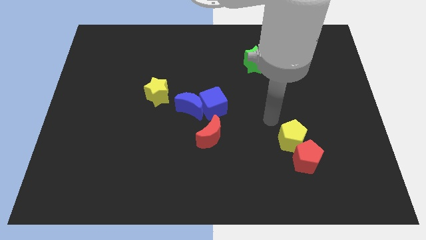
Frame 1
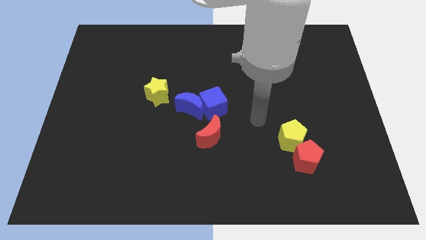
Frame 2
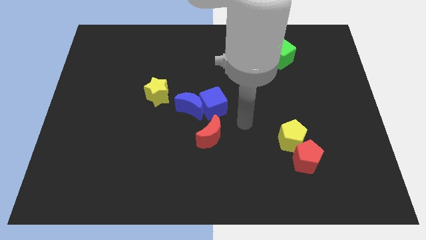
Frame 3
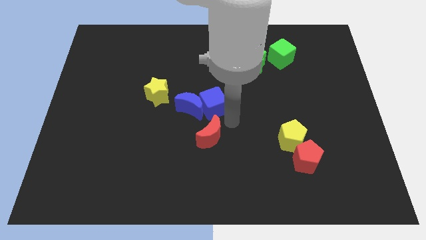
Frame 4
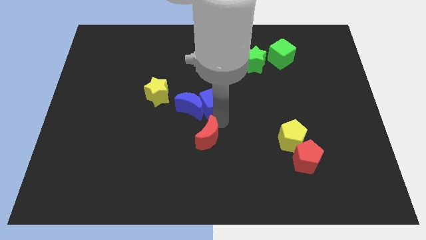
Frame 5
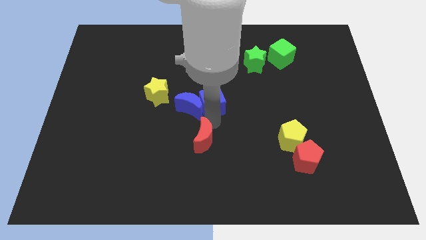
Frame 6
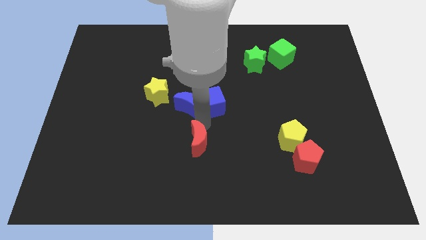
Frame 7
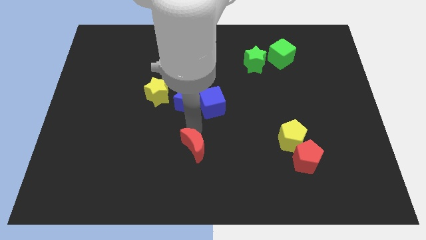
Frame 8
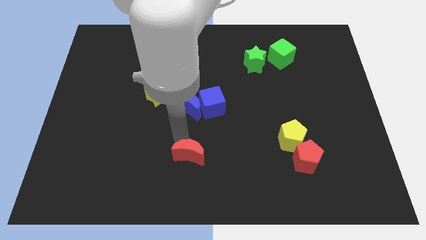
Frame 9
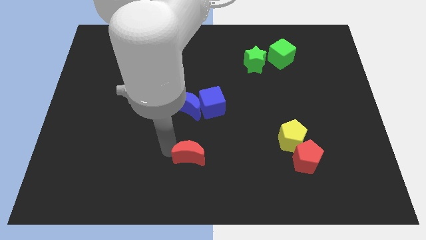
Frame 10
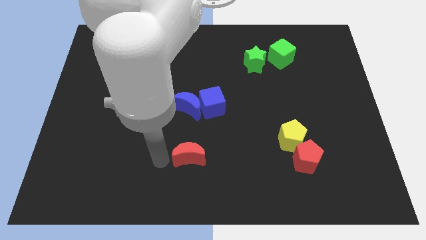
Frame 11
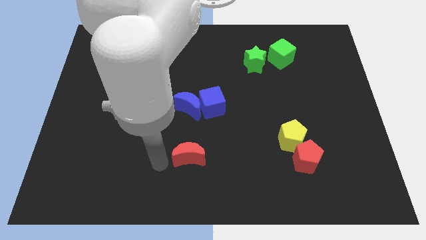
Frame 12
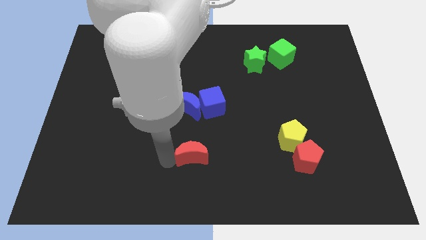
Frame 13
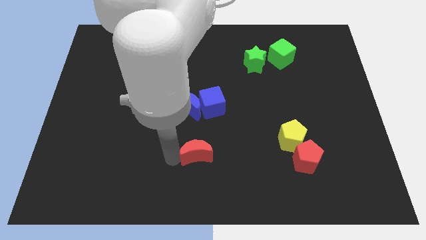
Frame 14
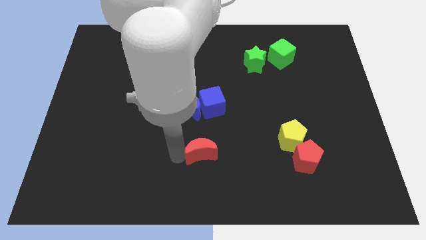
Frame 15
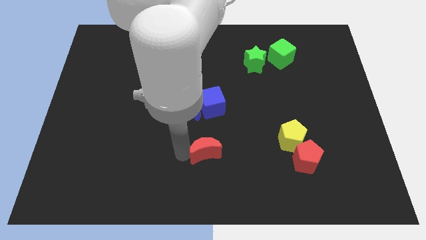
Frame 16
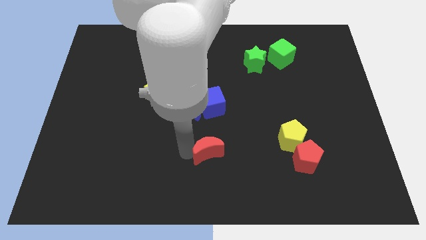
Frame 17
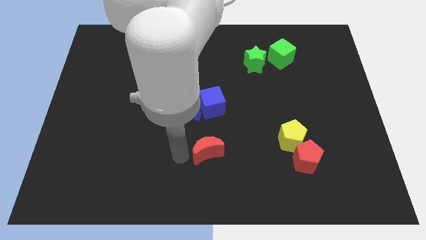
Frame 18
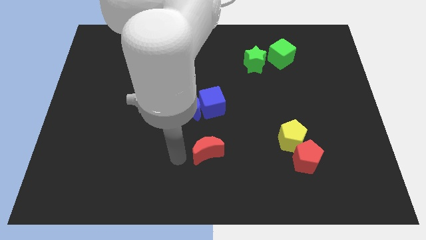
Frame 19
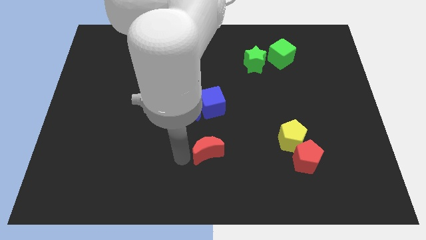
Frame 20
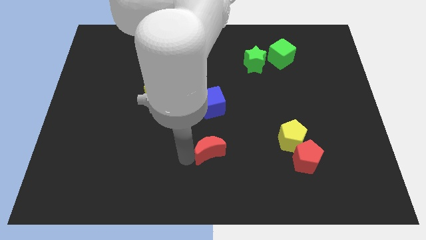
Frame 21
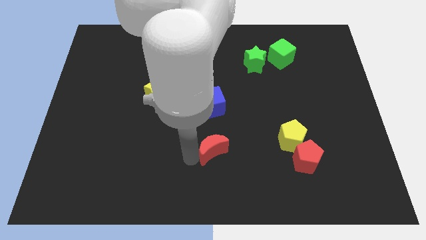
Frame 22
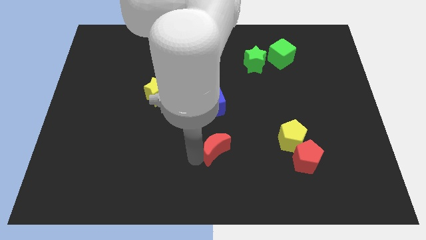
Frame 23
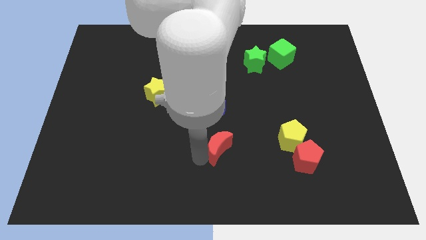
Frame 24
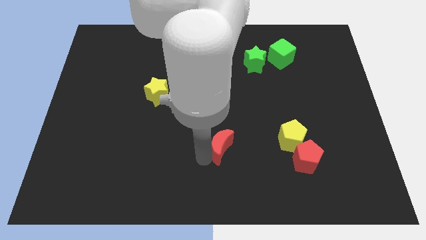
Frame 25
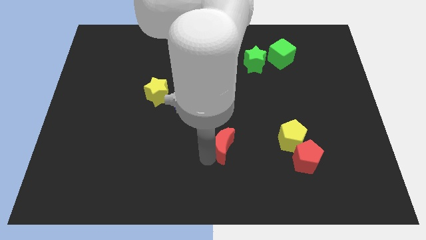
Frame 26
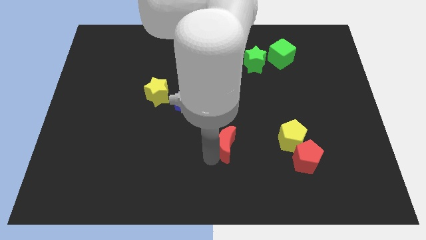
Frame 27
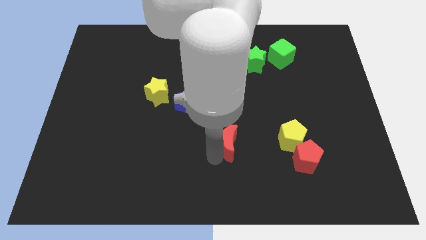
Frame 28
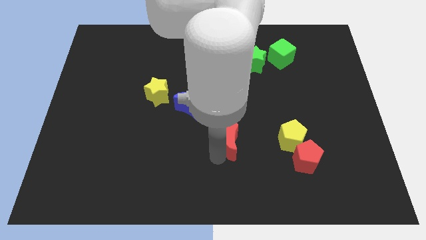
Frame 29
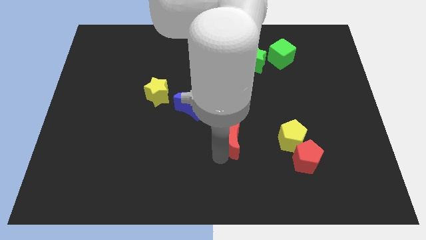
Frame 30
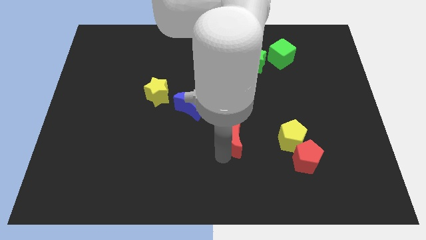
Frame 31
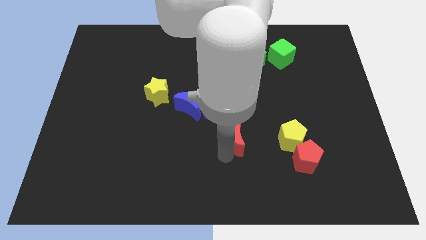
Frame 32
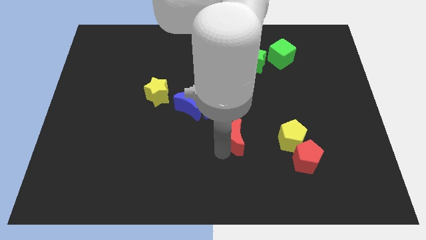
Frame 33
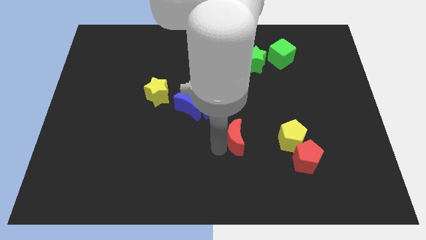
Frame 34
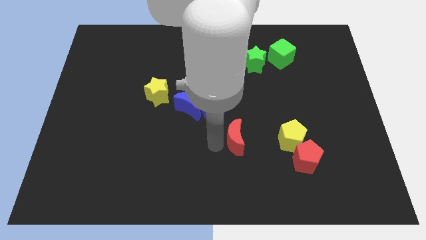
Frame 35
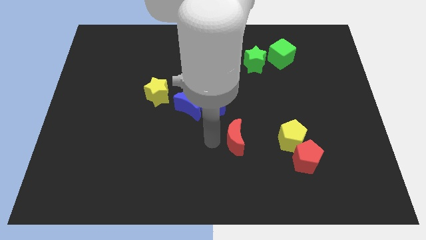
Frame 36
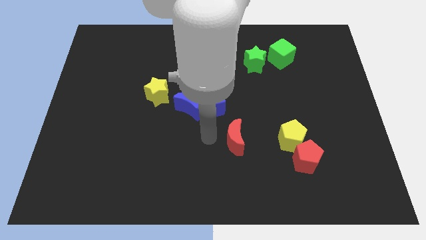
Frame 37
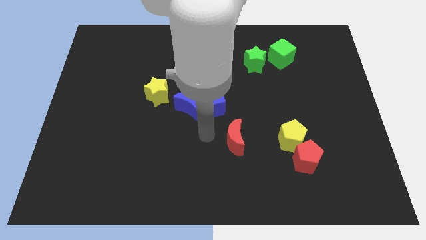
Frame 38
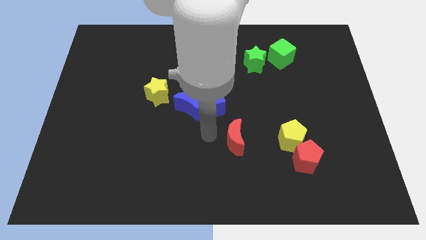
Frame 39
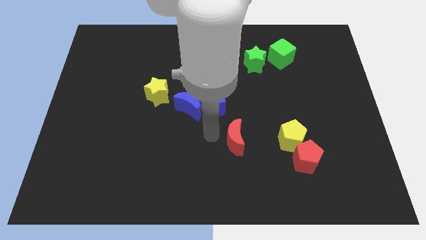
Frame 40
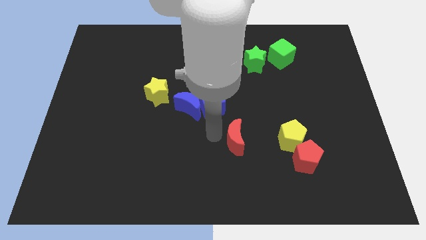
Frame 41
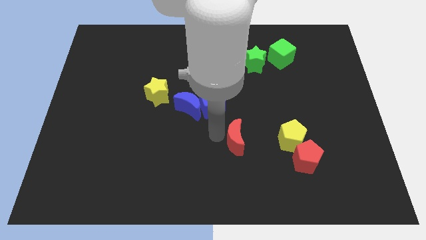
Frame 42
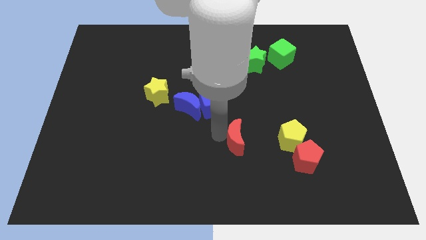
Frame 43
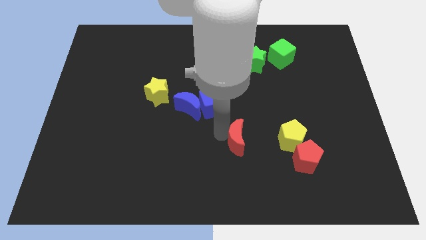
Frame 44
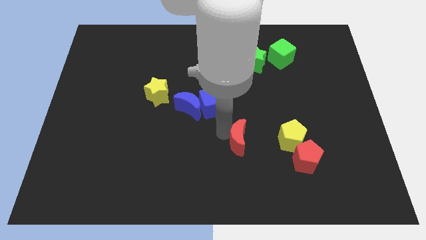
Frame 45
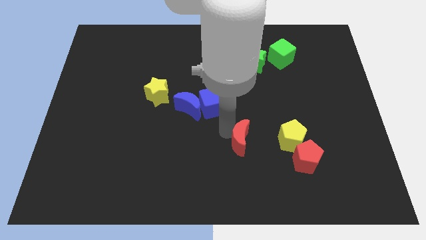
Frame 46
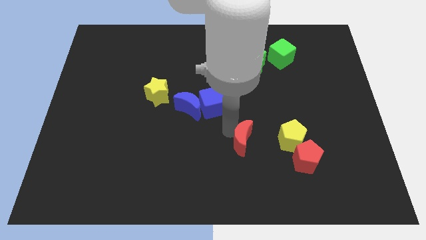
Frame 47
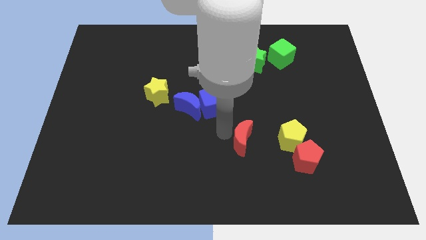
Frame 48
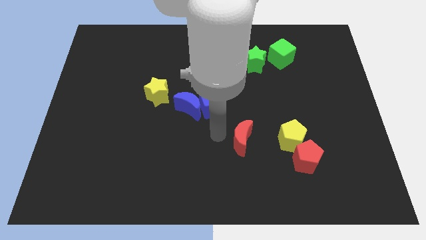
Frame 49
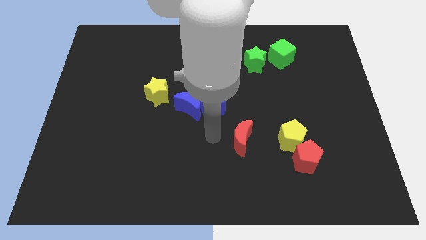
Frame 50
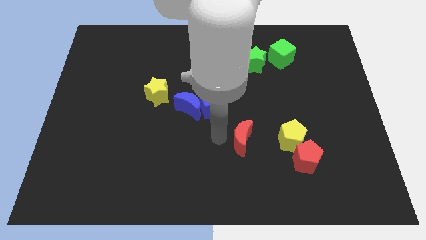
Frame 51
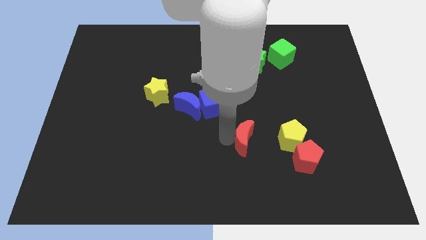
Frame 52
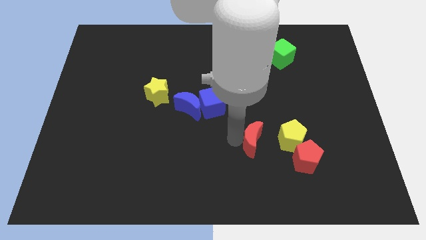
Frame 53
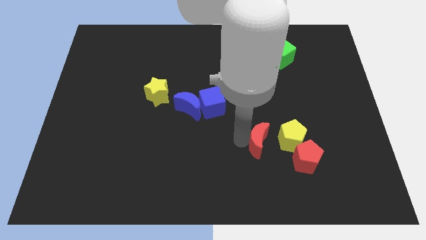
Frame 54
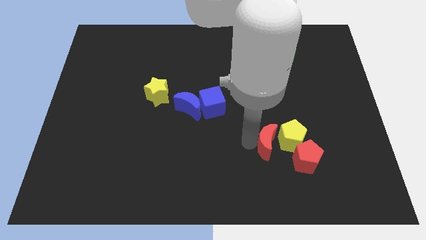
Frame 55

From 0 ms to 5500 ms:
slide the red moon to the yellow pentagon

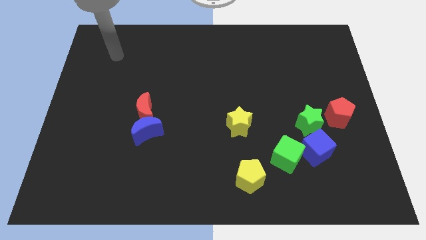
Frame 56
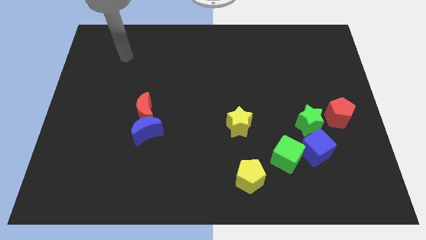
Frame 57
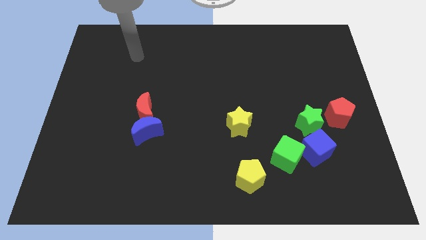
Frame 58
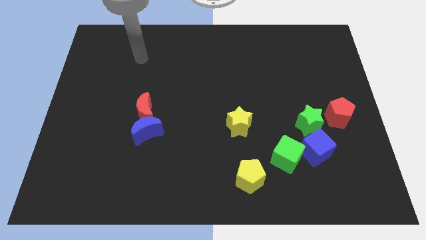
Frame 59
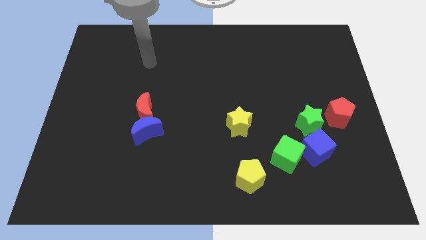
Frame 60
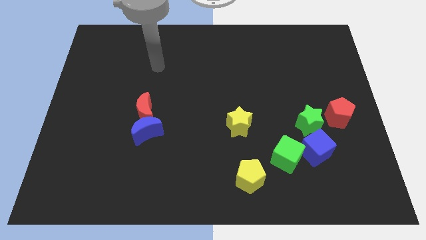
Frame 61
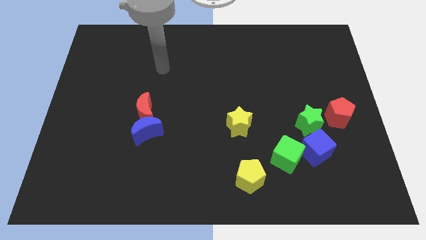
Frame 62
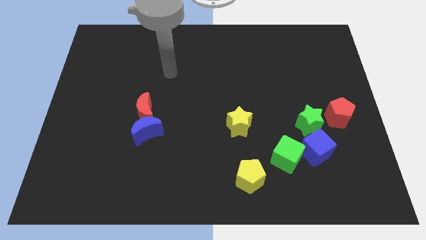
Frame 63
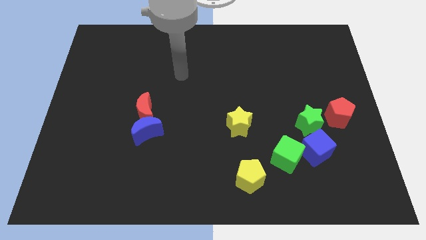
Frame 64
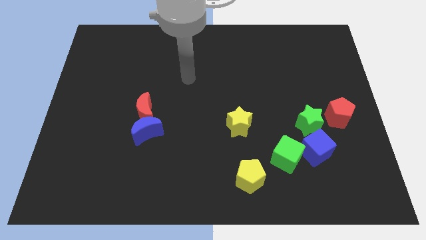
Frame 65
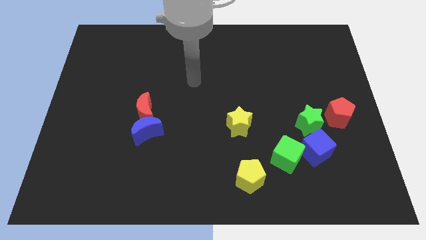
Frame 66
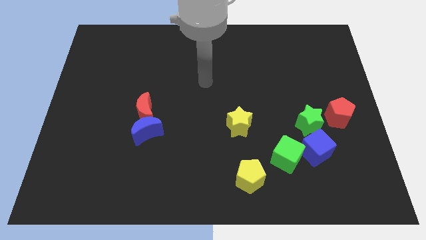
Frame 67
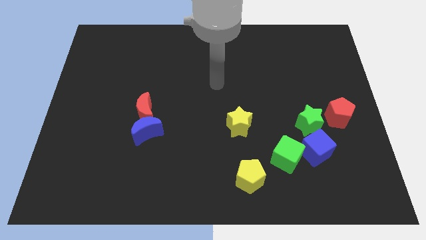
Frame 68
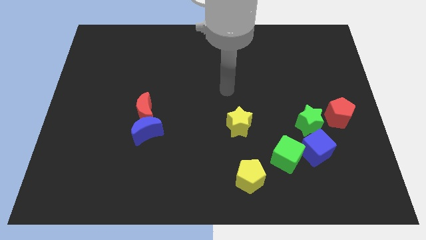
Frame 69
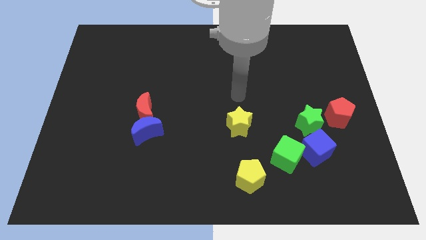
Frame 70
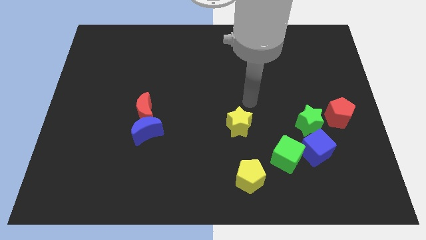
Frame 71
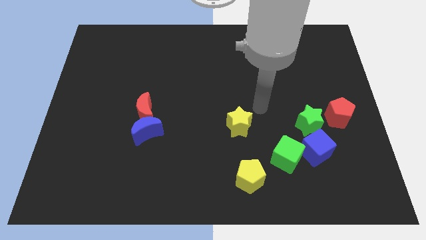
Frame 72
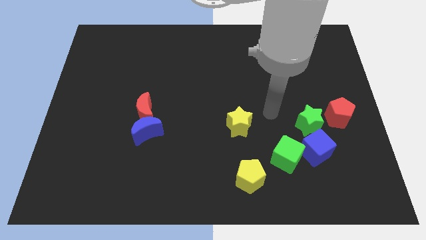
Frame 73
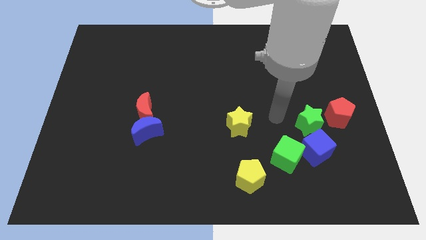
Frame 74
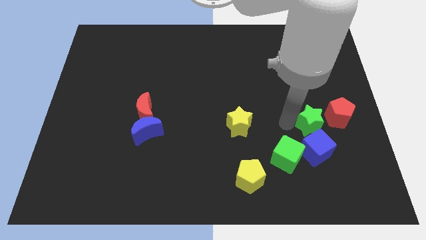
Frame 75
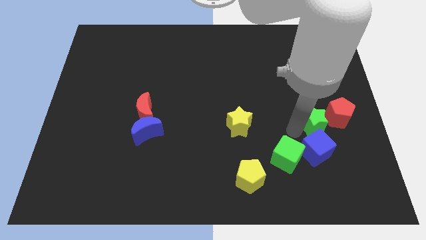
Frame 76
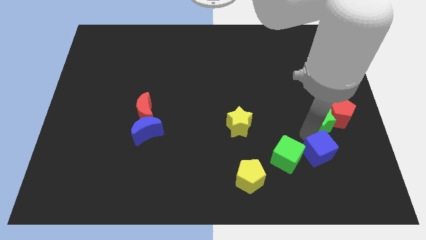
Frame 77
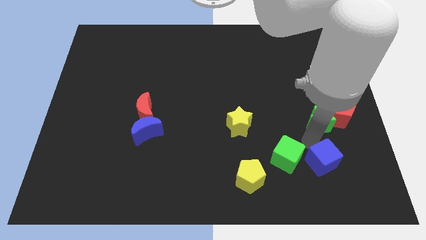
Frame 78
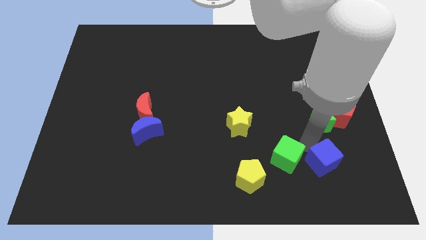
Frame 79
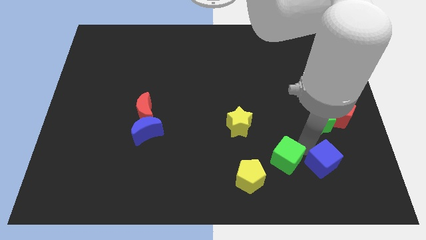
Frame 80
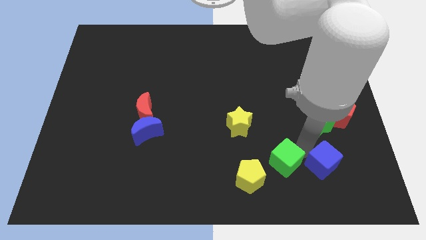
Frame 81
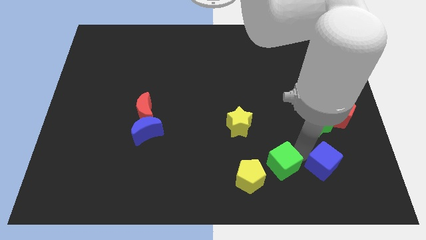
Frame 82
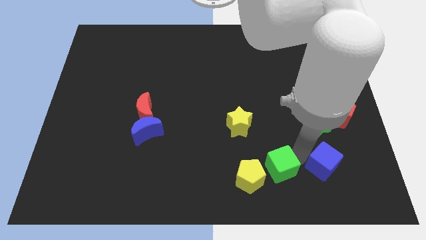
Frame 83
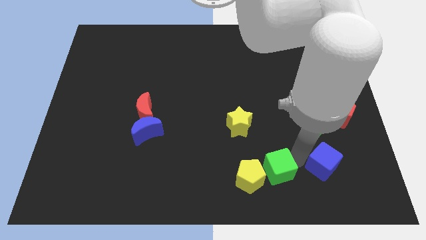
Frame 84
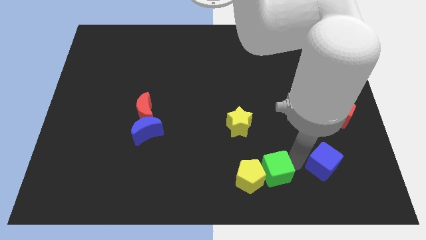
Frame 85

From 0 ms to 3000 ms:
slide the green cube to the yellow pentagon
